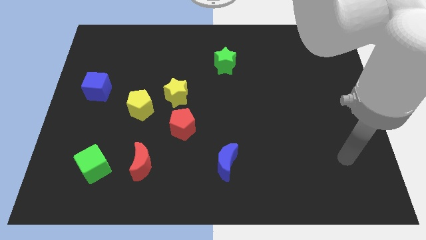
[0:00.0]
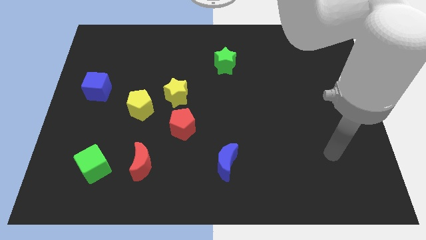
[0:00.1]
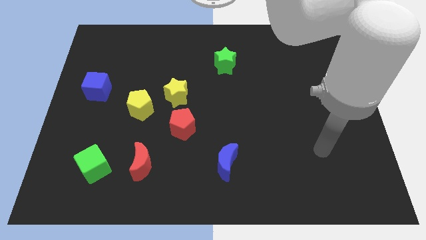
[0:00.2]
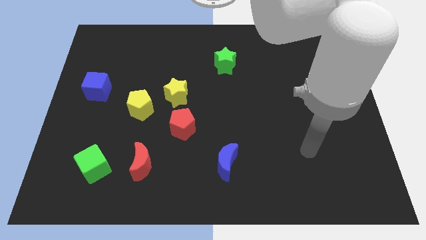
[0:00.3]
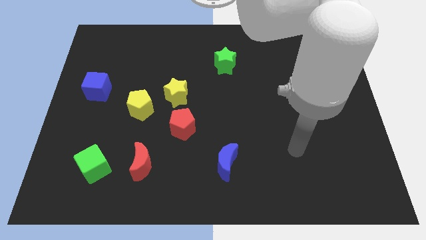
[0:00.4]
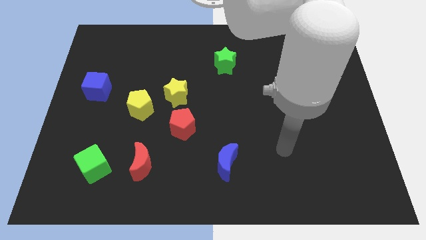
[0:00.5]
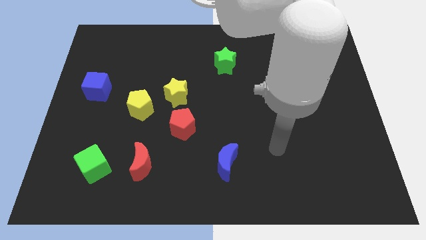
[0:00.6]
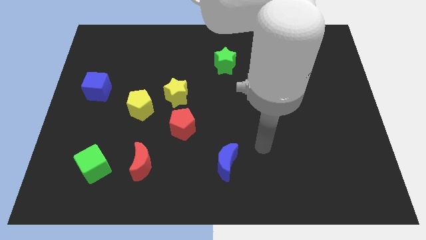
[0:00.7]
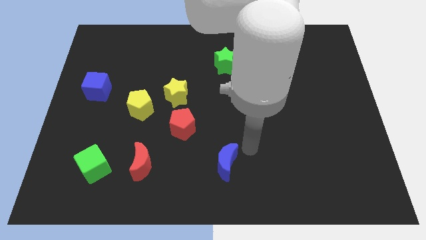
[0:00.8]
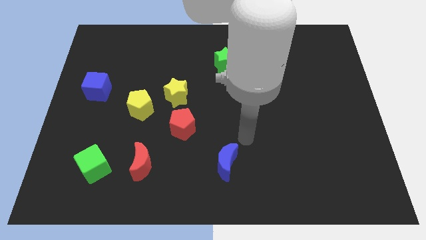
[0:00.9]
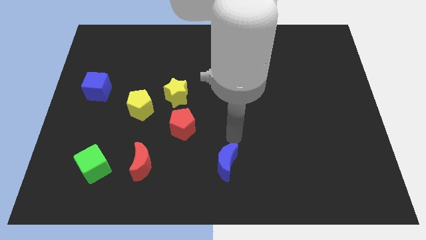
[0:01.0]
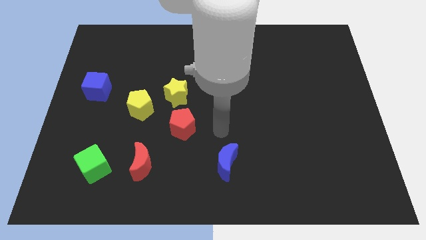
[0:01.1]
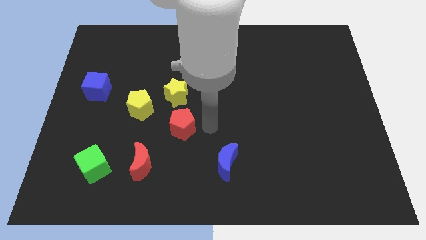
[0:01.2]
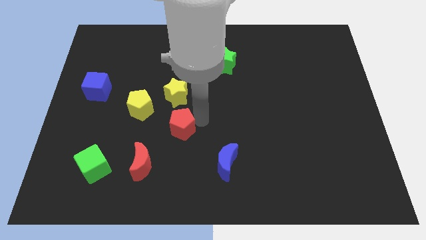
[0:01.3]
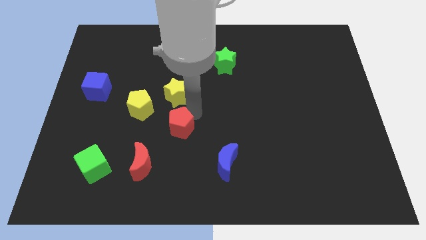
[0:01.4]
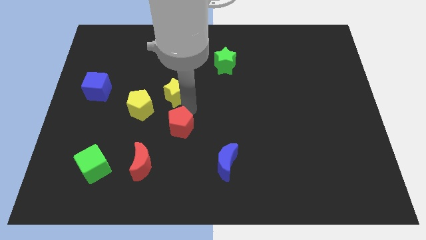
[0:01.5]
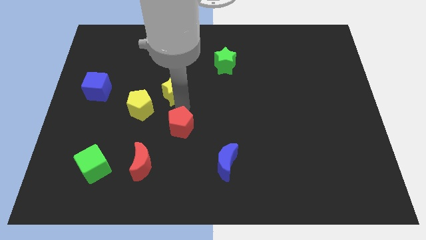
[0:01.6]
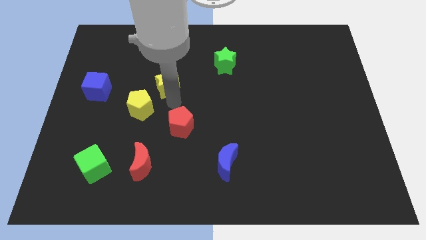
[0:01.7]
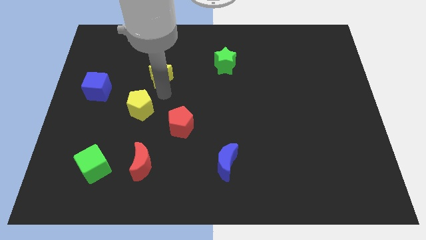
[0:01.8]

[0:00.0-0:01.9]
pull the yellow pentagon apart from the yellow star

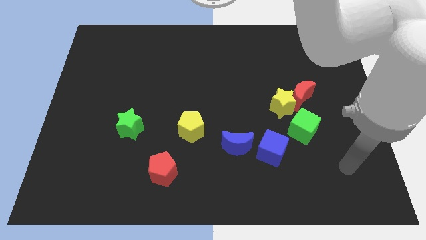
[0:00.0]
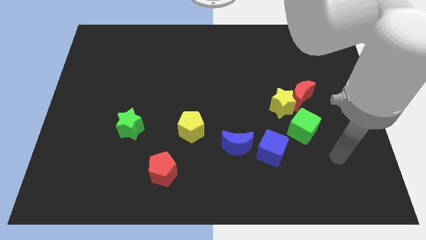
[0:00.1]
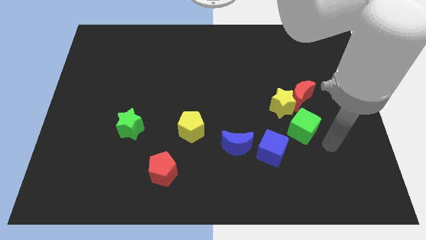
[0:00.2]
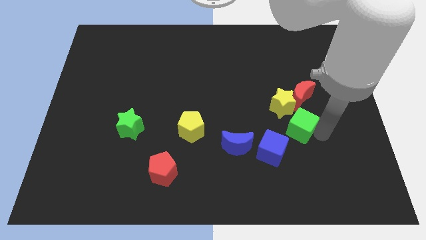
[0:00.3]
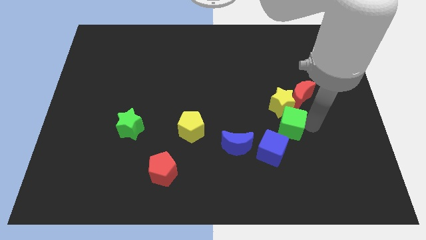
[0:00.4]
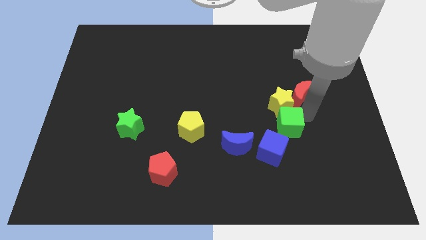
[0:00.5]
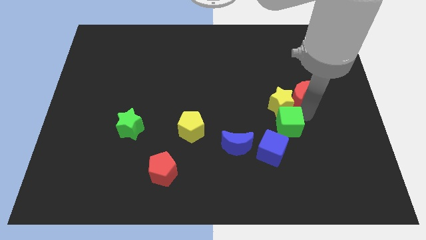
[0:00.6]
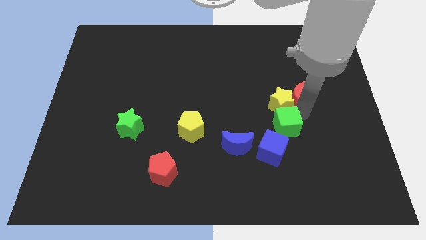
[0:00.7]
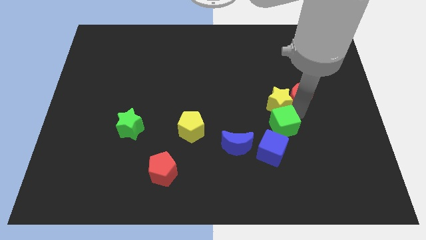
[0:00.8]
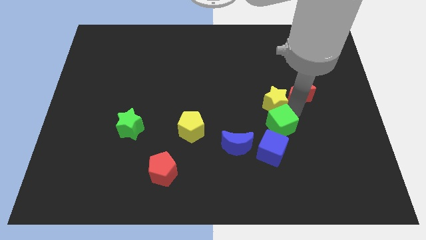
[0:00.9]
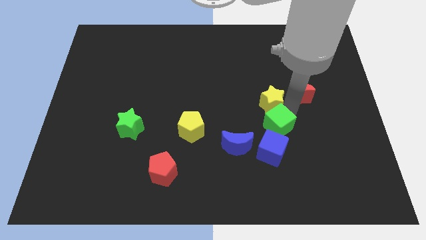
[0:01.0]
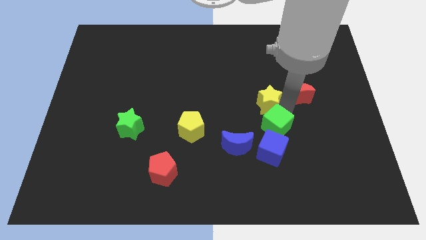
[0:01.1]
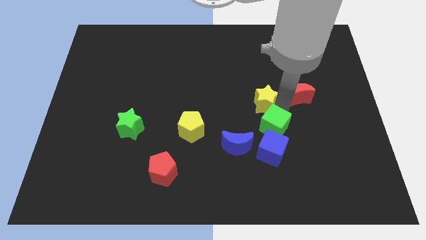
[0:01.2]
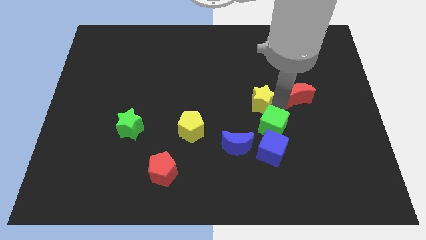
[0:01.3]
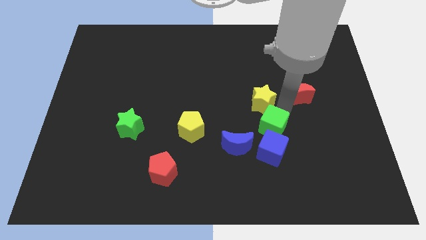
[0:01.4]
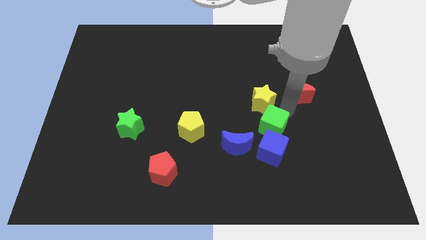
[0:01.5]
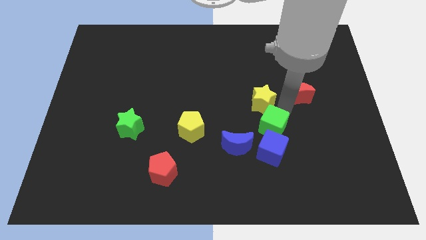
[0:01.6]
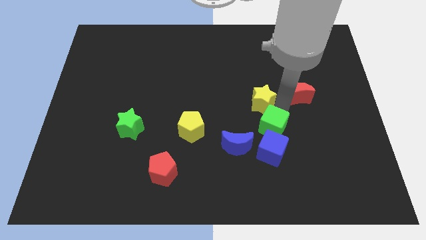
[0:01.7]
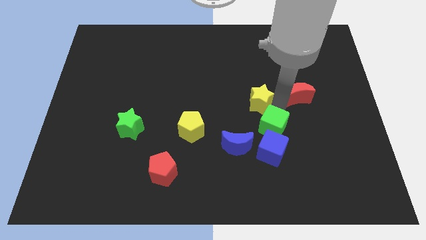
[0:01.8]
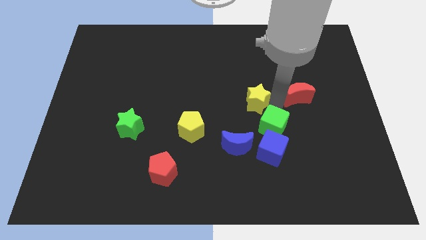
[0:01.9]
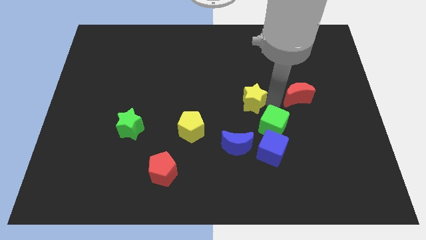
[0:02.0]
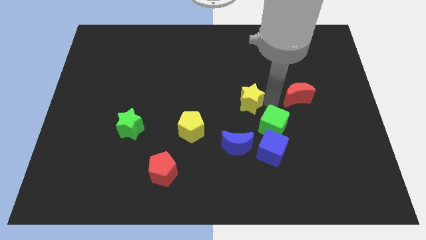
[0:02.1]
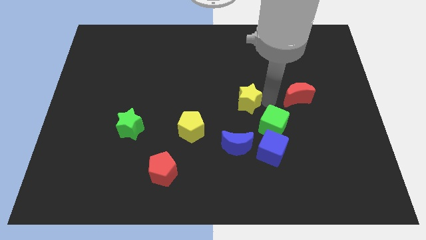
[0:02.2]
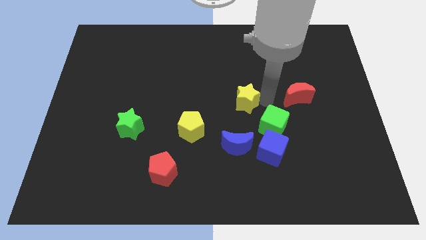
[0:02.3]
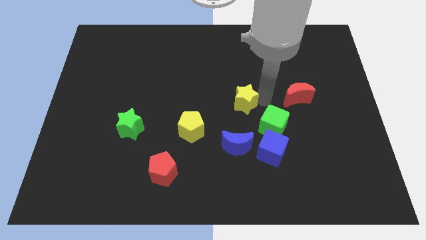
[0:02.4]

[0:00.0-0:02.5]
separate the yellow star from the red moon and green cube

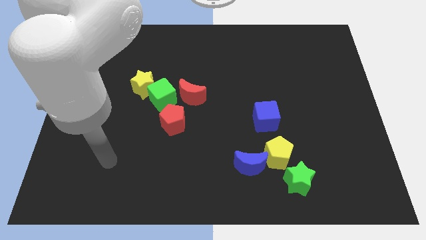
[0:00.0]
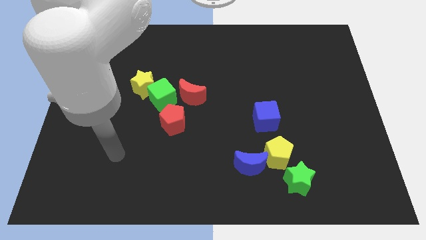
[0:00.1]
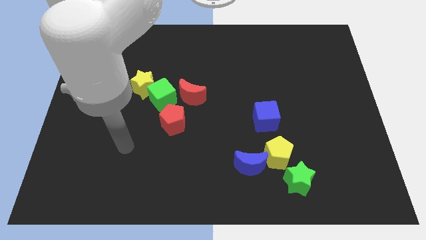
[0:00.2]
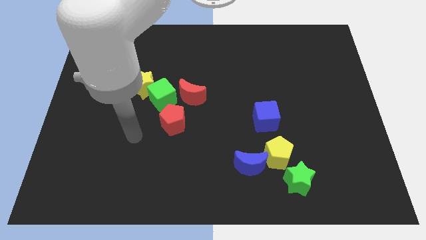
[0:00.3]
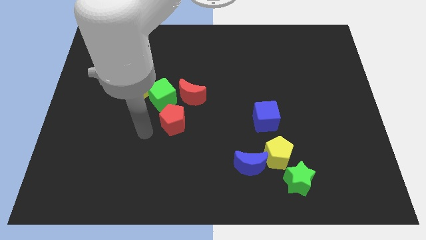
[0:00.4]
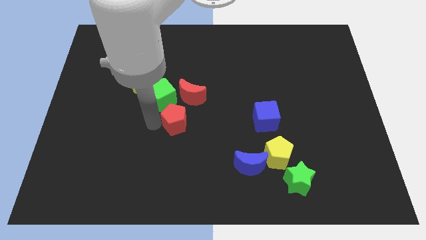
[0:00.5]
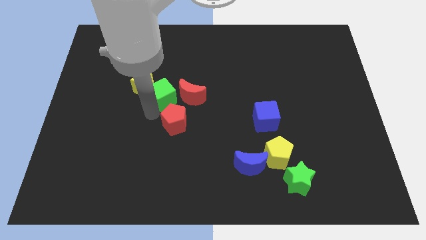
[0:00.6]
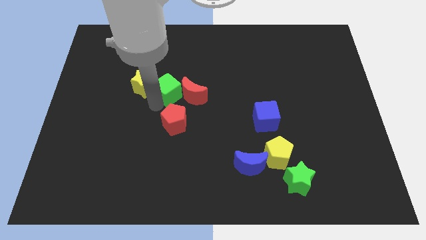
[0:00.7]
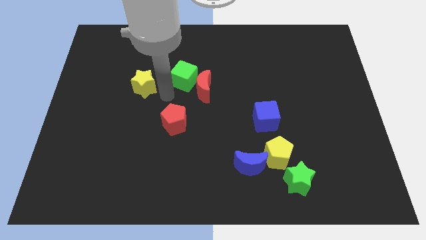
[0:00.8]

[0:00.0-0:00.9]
pull the yellow star apart from the green cube

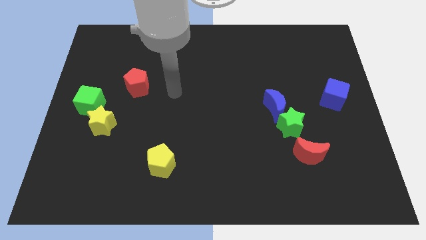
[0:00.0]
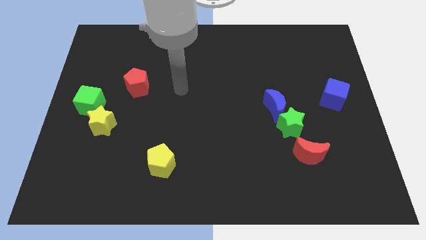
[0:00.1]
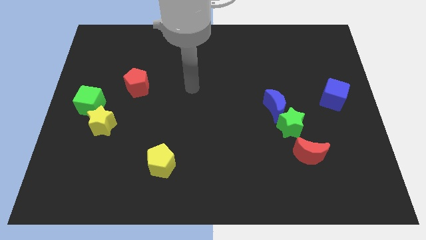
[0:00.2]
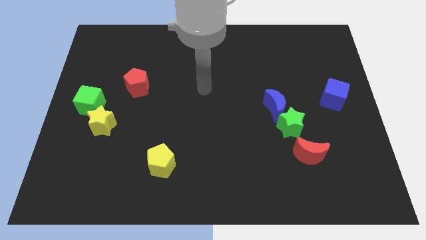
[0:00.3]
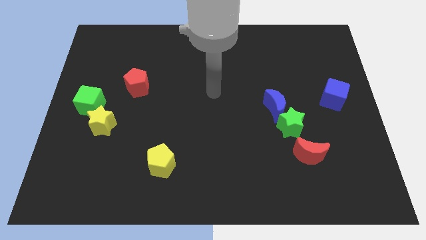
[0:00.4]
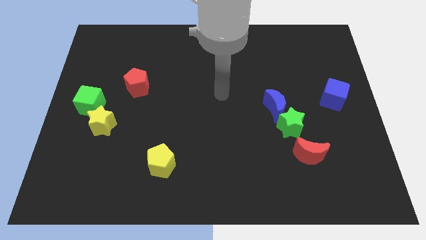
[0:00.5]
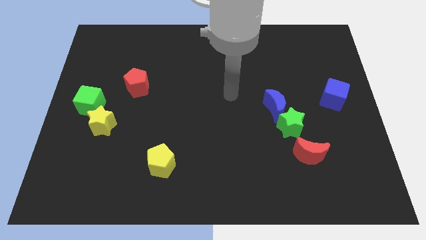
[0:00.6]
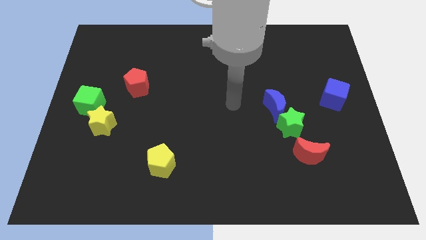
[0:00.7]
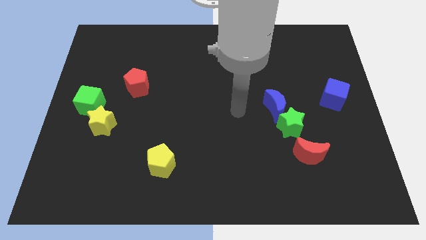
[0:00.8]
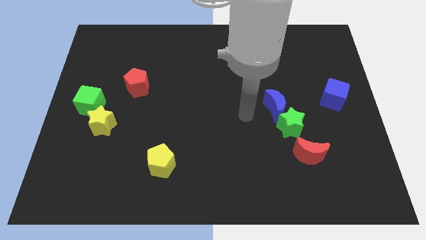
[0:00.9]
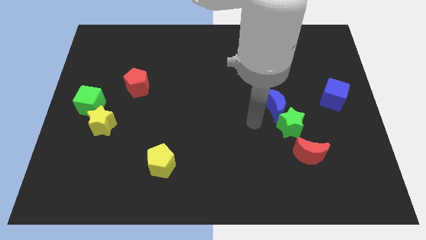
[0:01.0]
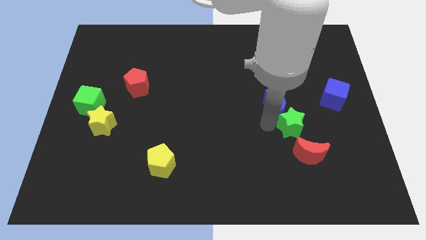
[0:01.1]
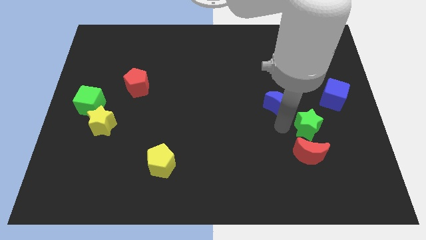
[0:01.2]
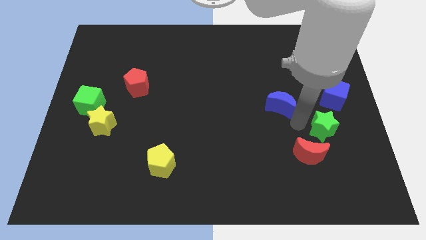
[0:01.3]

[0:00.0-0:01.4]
move the blue moon away from the green star

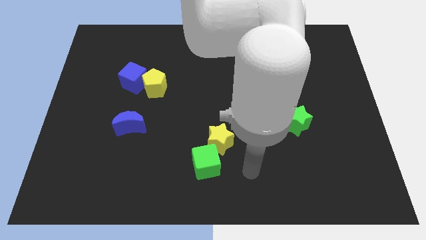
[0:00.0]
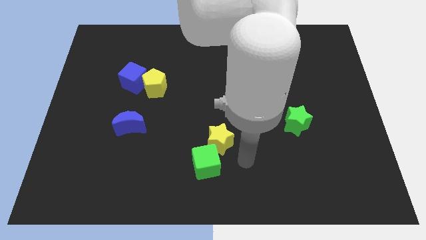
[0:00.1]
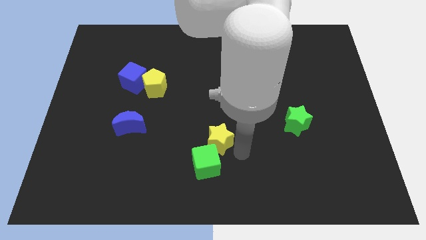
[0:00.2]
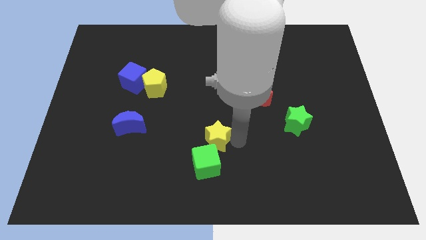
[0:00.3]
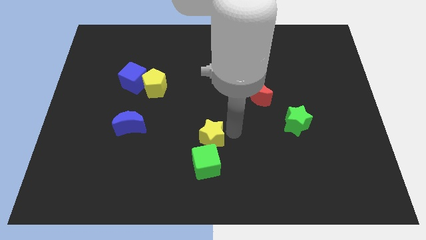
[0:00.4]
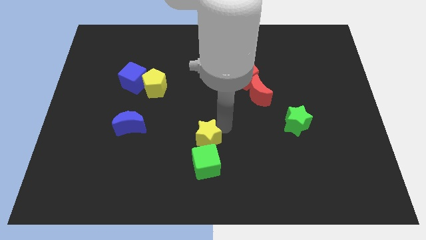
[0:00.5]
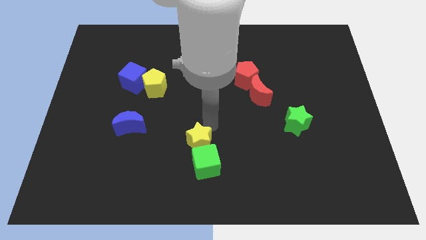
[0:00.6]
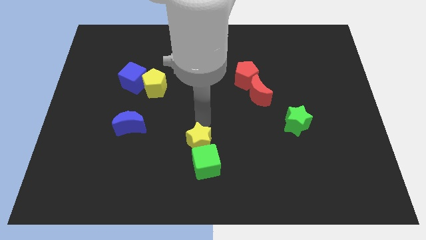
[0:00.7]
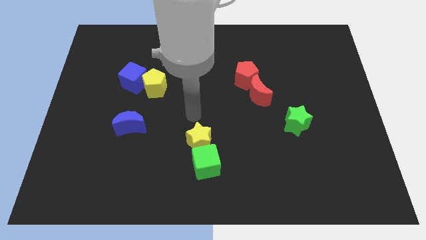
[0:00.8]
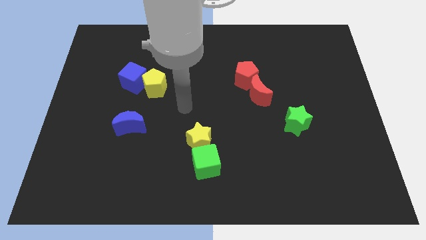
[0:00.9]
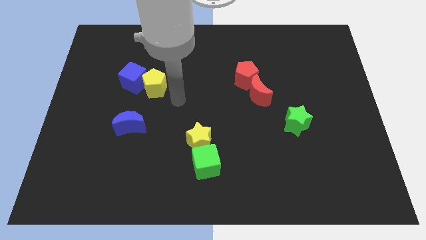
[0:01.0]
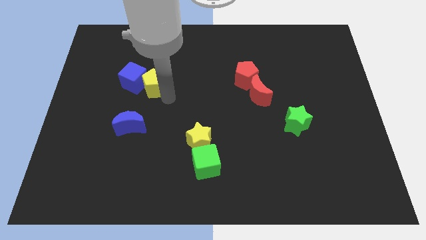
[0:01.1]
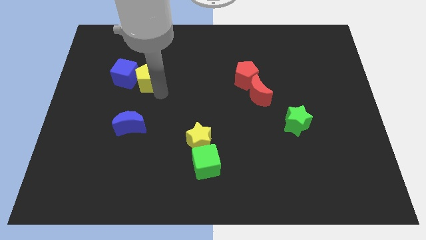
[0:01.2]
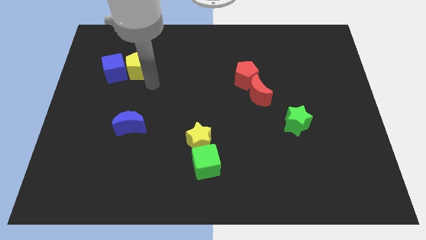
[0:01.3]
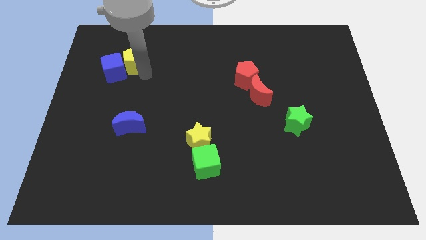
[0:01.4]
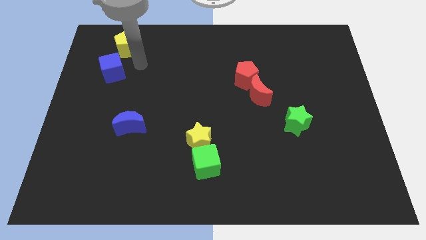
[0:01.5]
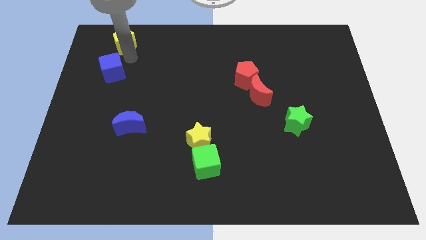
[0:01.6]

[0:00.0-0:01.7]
separate the blue cube from the yellow pentagon

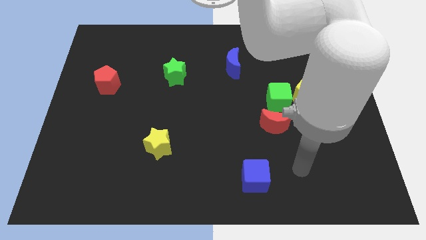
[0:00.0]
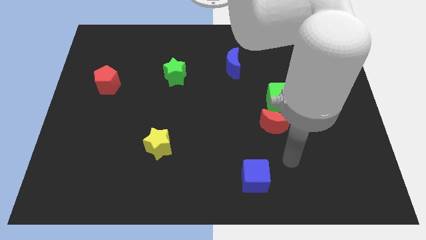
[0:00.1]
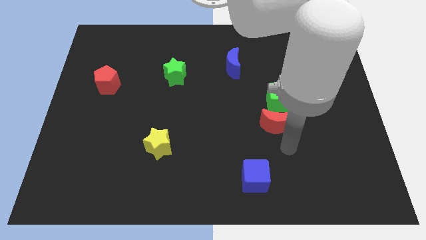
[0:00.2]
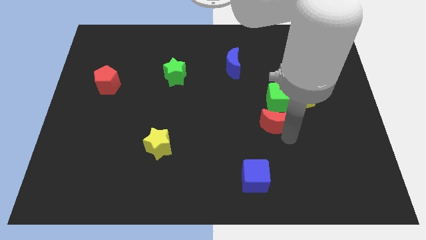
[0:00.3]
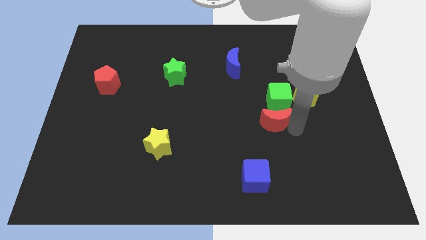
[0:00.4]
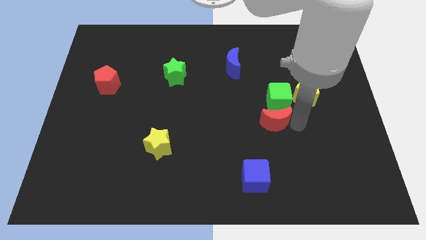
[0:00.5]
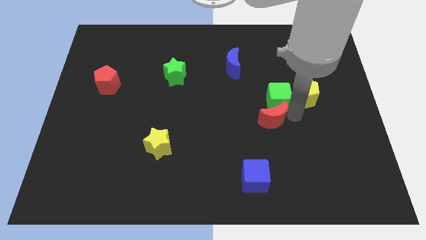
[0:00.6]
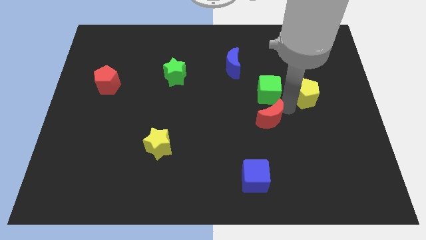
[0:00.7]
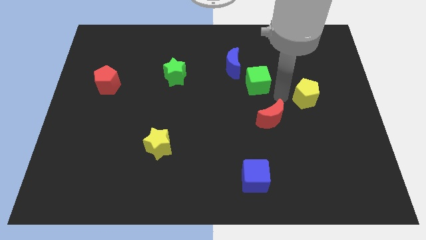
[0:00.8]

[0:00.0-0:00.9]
pull the yellow pentagon apart from the green cube
